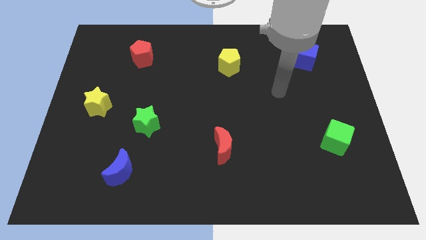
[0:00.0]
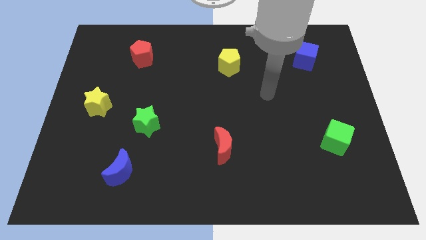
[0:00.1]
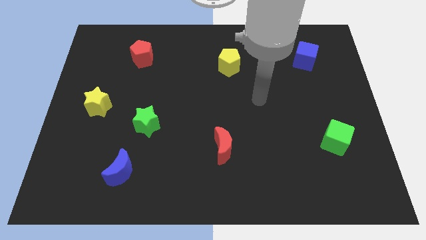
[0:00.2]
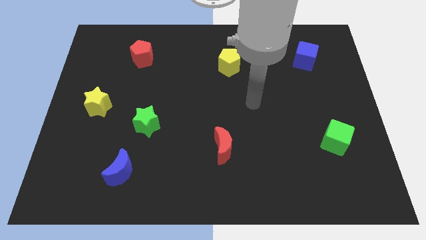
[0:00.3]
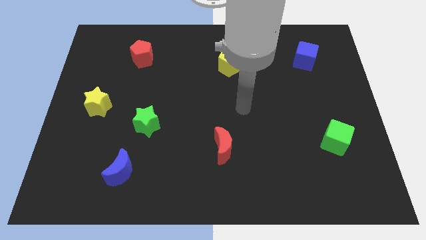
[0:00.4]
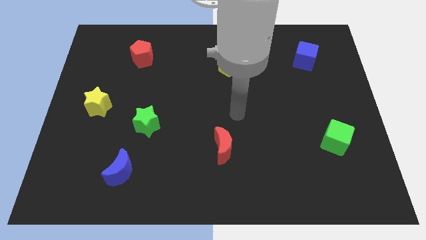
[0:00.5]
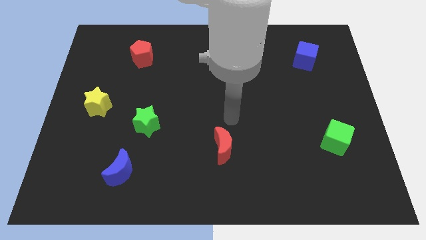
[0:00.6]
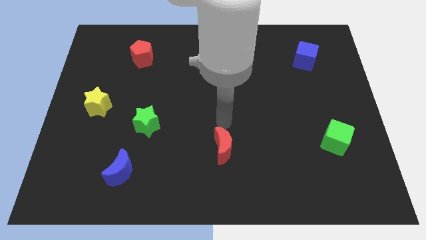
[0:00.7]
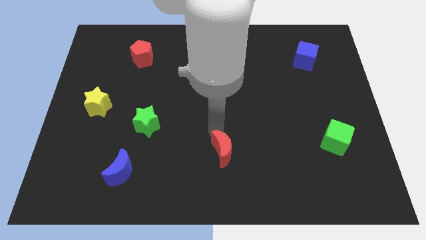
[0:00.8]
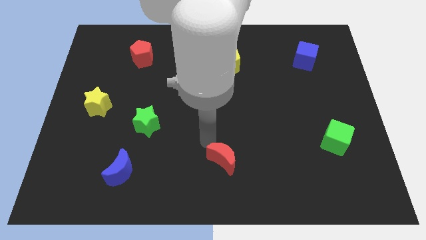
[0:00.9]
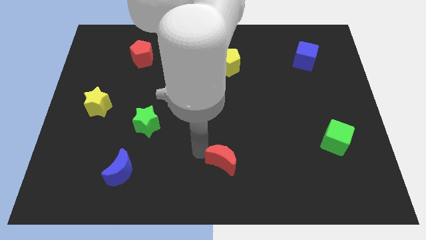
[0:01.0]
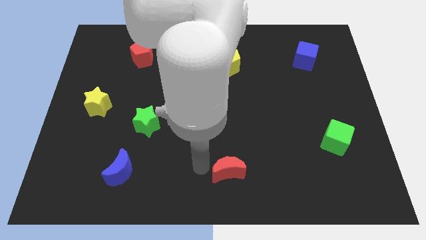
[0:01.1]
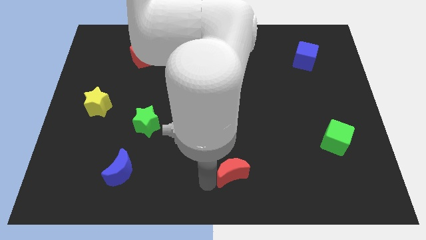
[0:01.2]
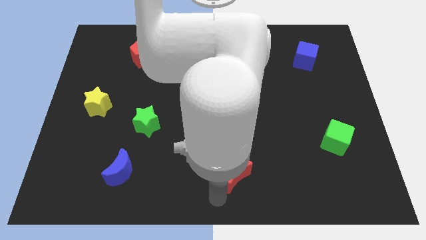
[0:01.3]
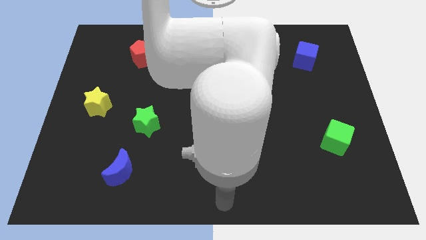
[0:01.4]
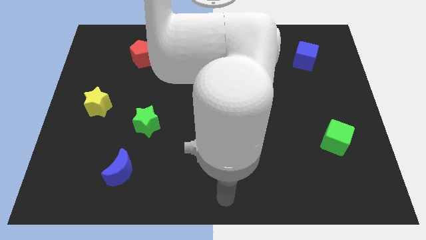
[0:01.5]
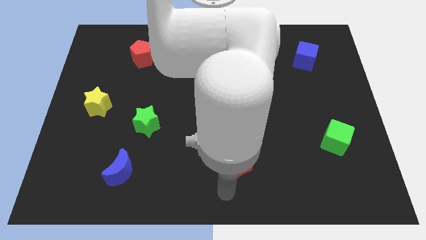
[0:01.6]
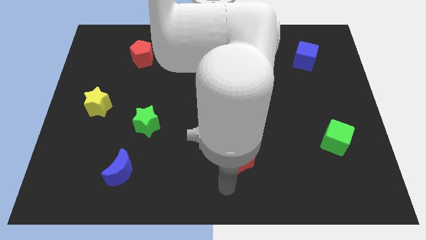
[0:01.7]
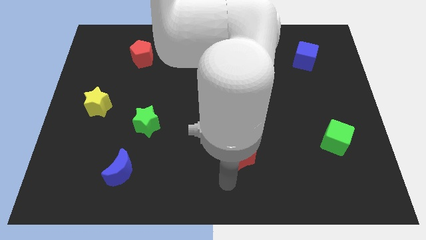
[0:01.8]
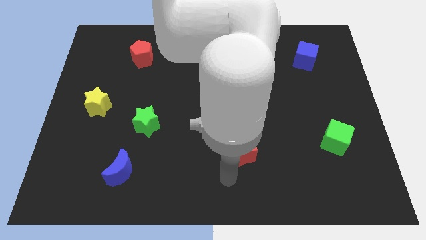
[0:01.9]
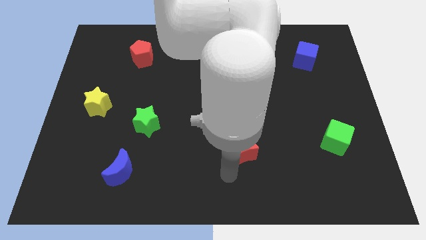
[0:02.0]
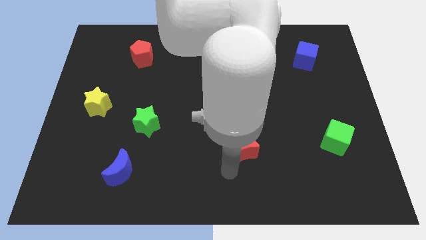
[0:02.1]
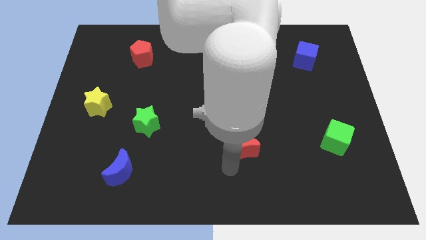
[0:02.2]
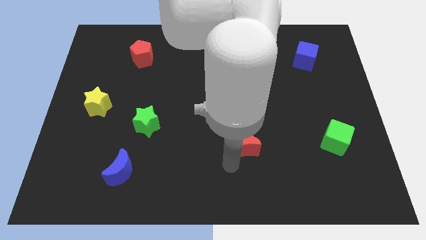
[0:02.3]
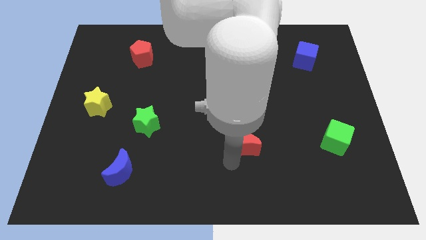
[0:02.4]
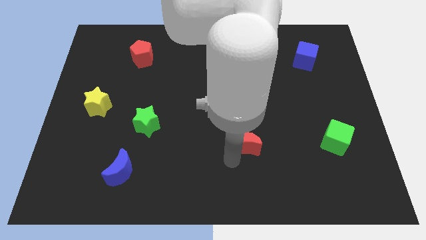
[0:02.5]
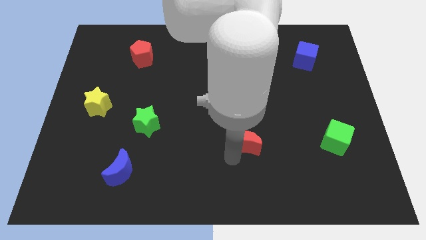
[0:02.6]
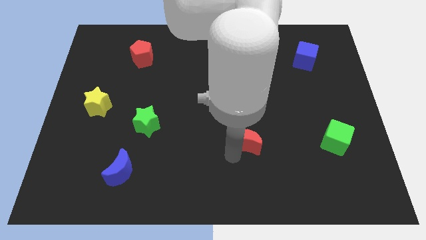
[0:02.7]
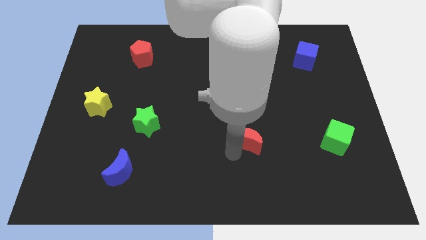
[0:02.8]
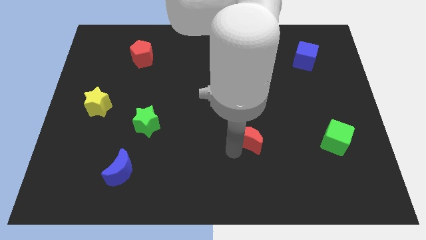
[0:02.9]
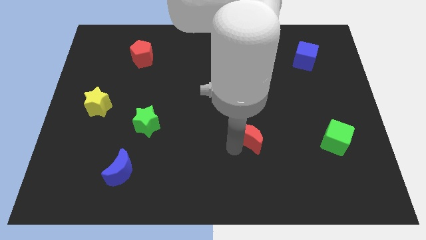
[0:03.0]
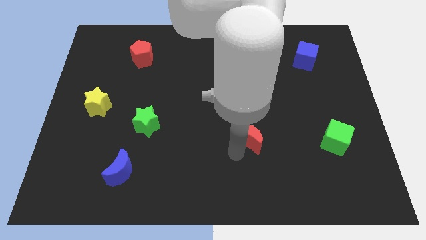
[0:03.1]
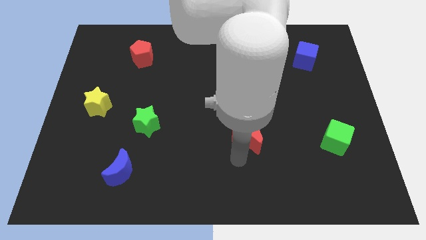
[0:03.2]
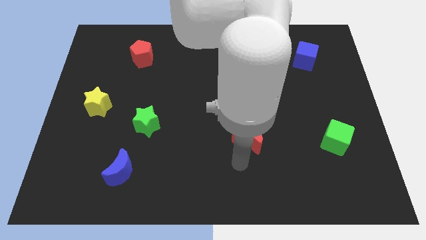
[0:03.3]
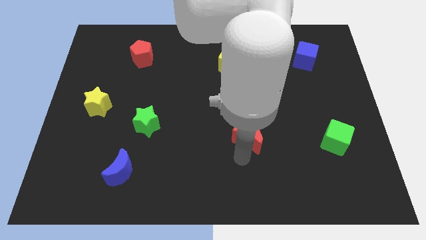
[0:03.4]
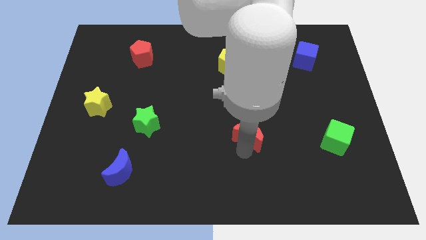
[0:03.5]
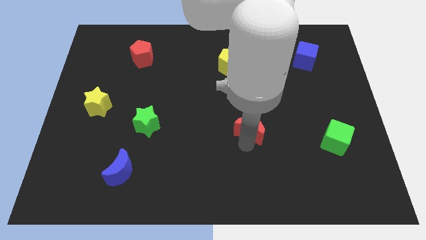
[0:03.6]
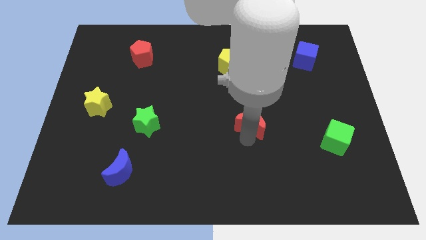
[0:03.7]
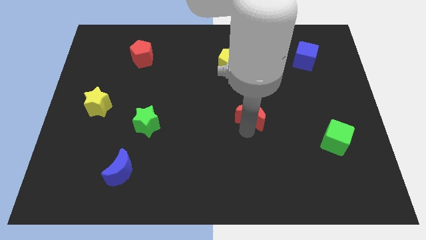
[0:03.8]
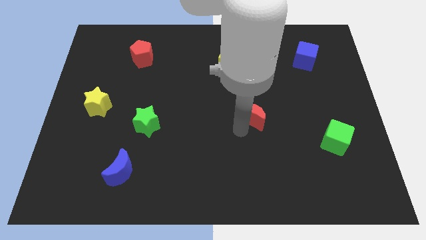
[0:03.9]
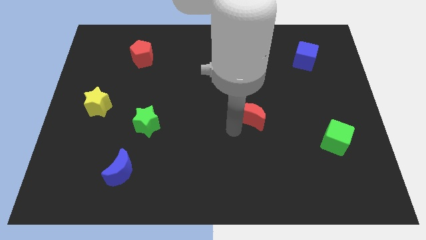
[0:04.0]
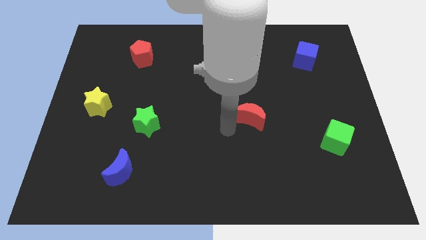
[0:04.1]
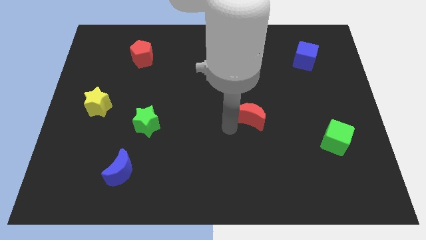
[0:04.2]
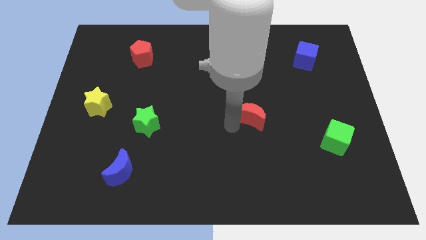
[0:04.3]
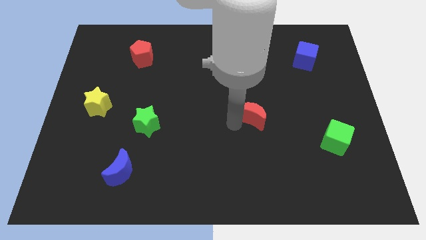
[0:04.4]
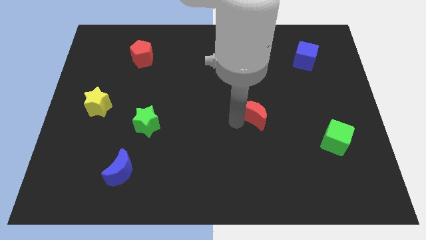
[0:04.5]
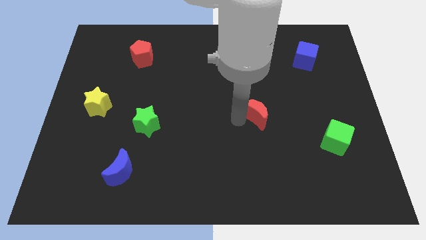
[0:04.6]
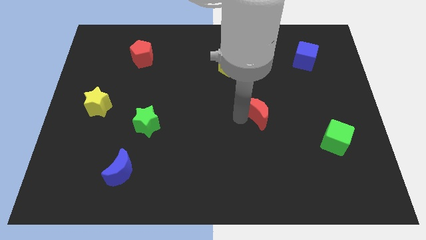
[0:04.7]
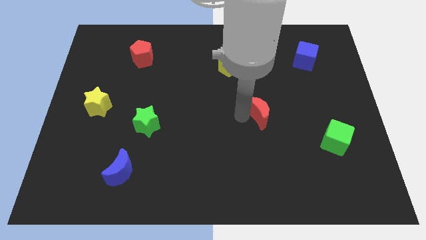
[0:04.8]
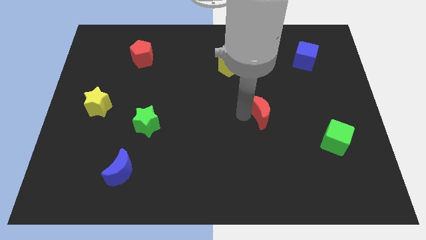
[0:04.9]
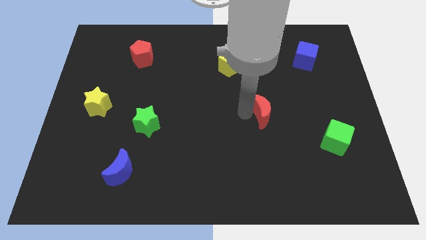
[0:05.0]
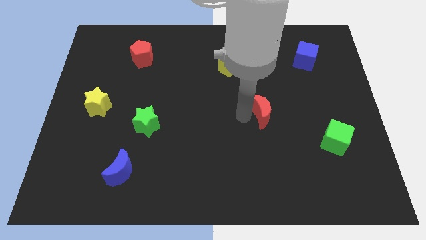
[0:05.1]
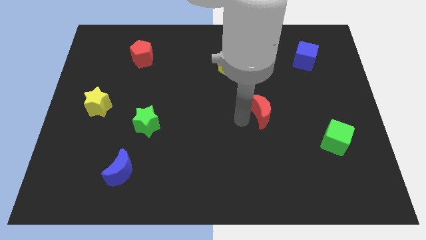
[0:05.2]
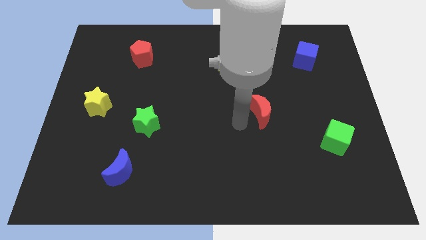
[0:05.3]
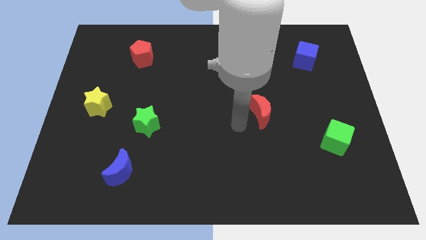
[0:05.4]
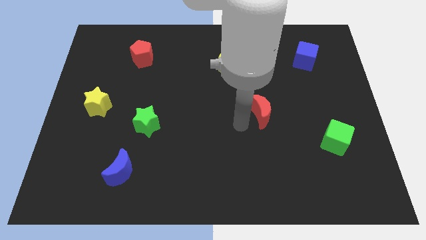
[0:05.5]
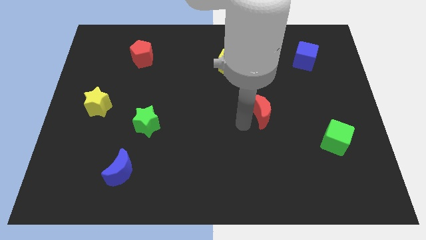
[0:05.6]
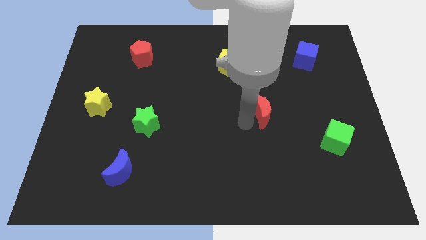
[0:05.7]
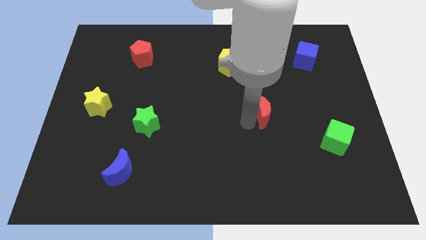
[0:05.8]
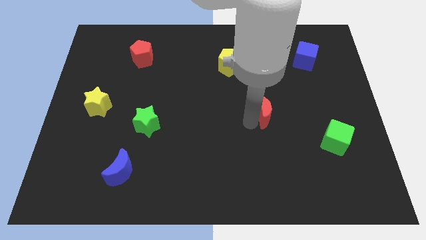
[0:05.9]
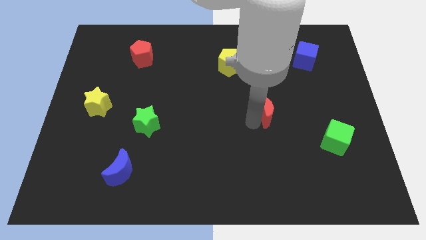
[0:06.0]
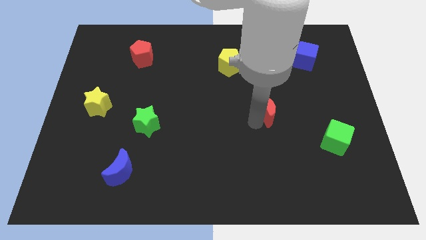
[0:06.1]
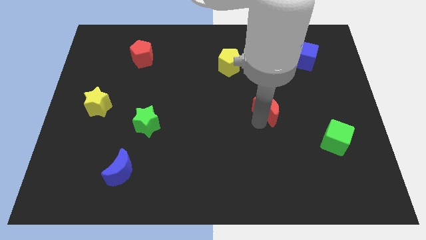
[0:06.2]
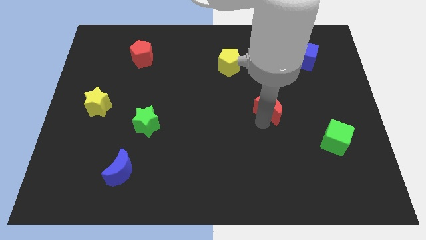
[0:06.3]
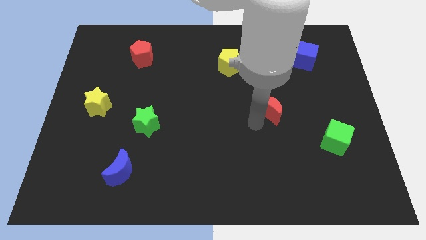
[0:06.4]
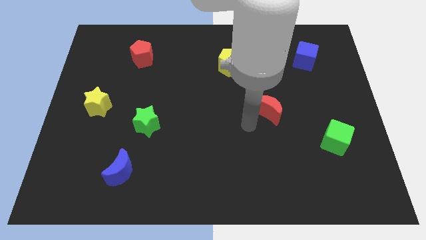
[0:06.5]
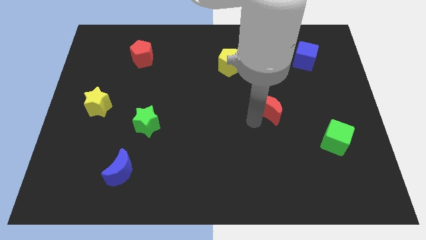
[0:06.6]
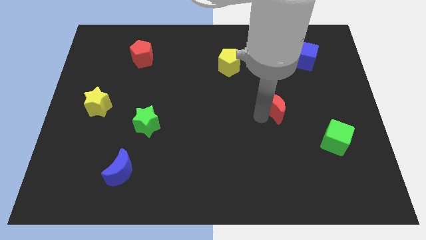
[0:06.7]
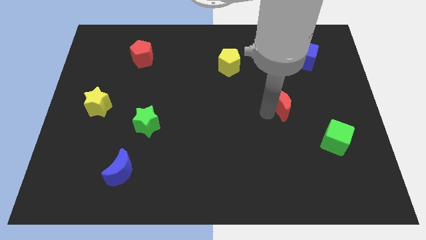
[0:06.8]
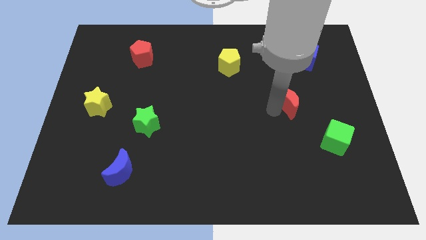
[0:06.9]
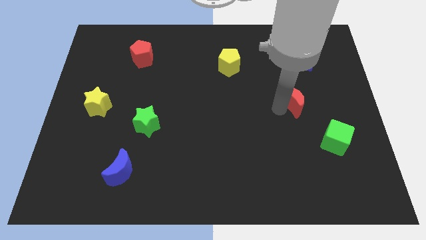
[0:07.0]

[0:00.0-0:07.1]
slide the red moon upwards and right

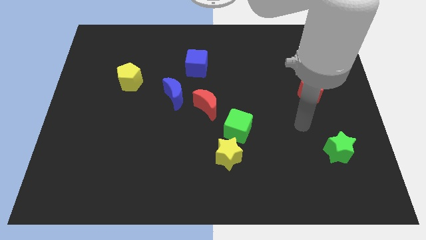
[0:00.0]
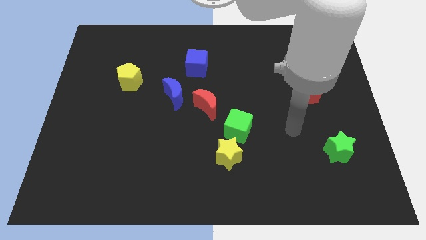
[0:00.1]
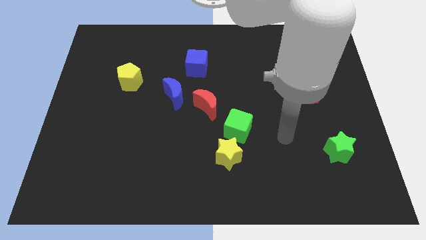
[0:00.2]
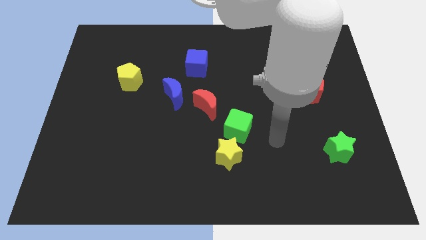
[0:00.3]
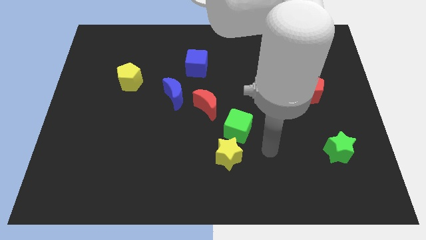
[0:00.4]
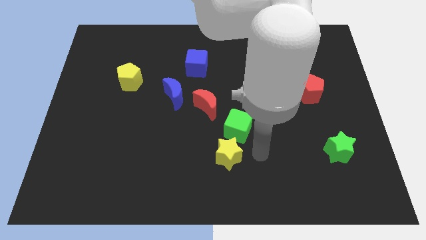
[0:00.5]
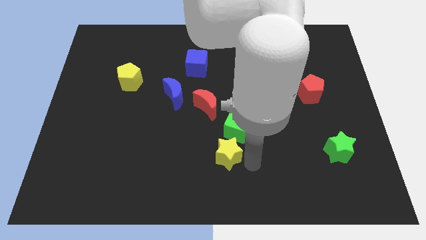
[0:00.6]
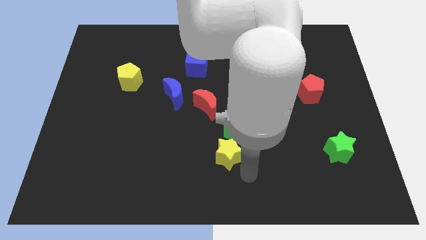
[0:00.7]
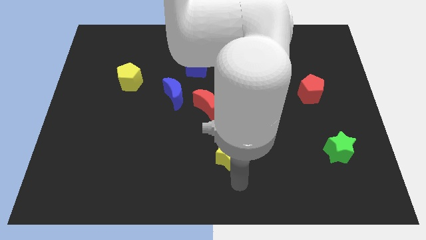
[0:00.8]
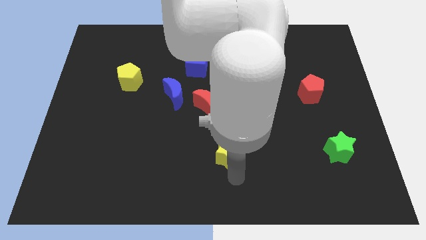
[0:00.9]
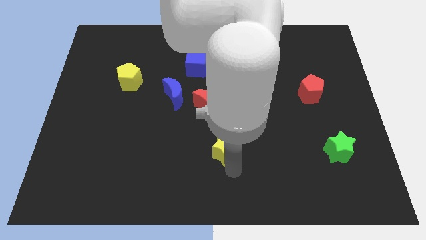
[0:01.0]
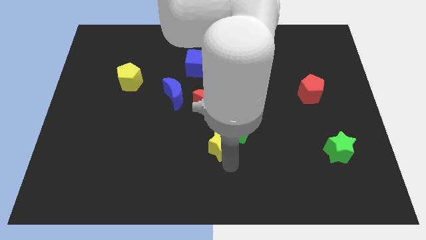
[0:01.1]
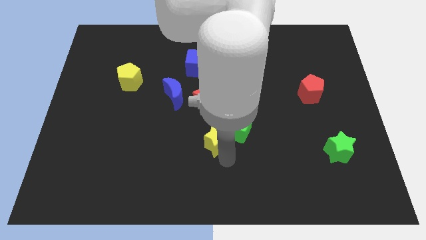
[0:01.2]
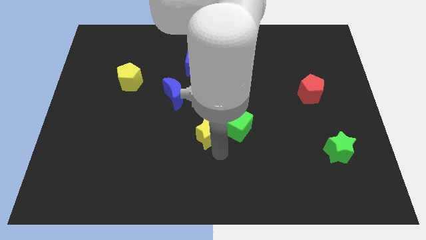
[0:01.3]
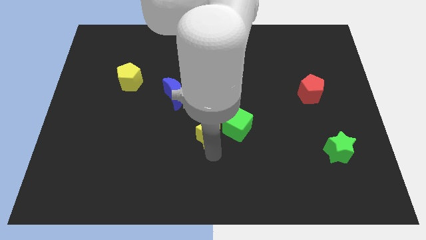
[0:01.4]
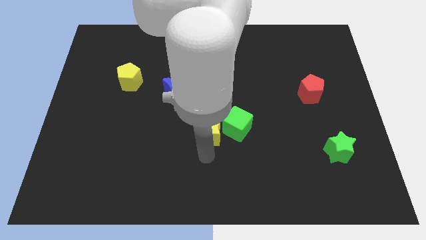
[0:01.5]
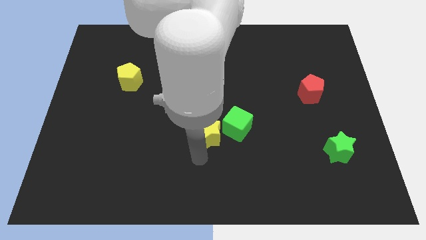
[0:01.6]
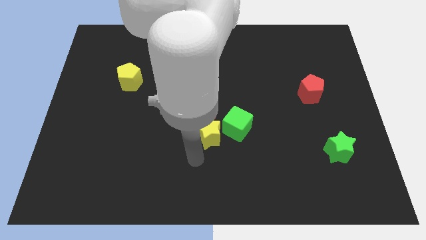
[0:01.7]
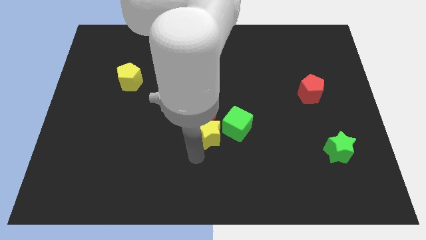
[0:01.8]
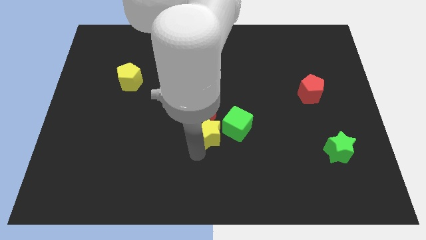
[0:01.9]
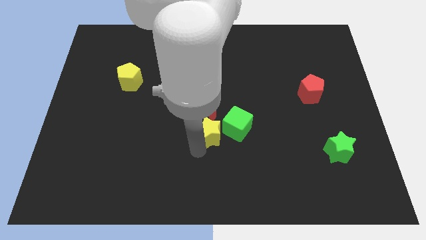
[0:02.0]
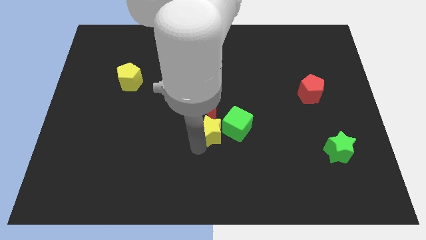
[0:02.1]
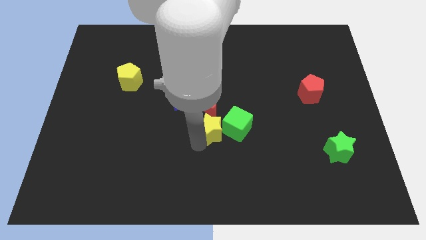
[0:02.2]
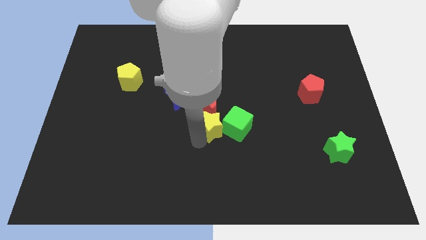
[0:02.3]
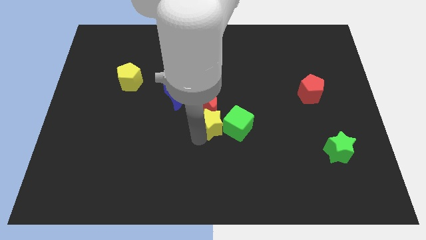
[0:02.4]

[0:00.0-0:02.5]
slide the yellow star upwards a little
